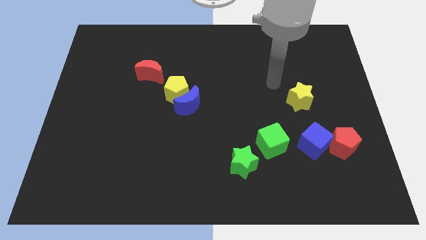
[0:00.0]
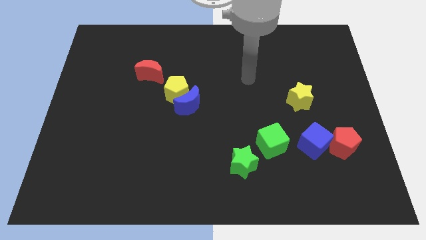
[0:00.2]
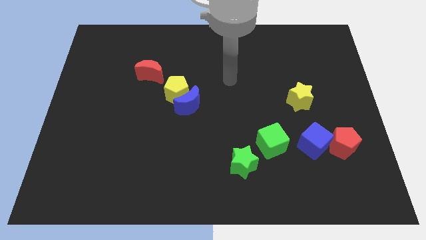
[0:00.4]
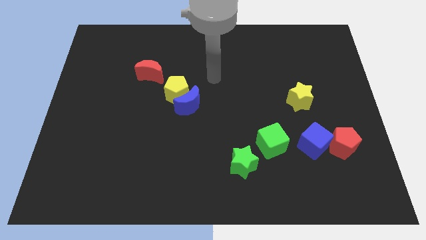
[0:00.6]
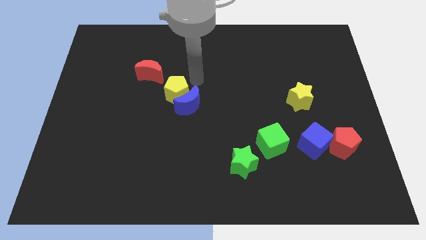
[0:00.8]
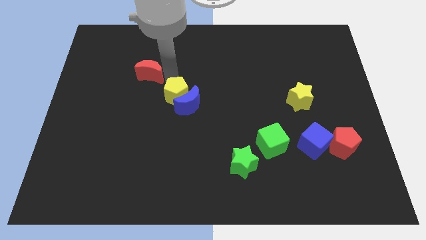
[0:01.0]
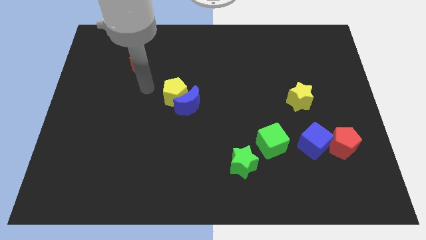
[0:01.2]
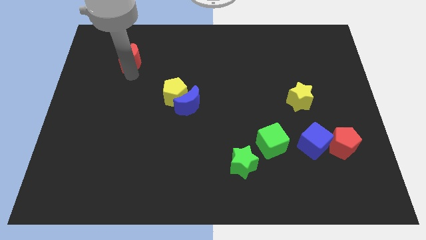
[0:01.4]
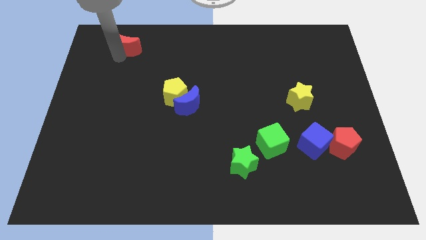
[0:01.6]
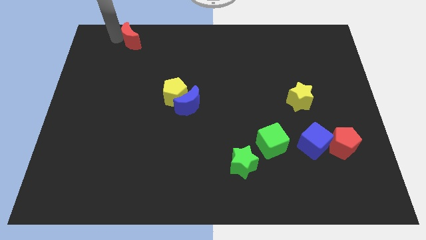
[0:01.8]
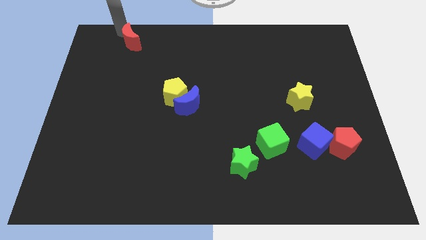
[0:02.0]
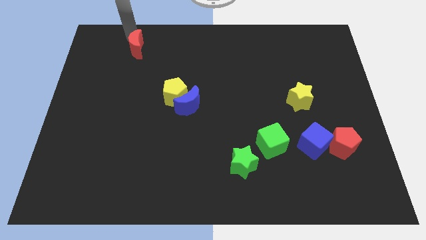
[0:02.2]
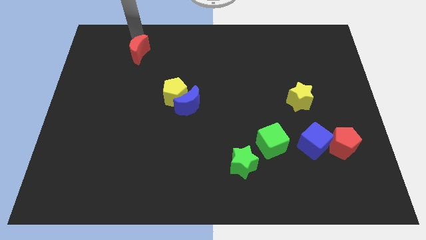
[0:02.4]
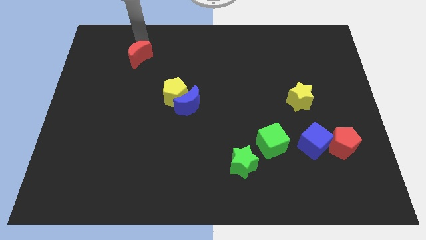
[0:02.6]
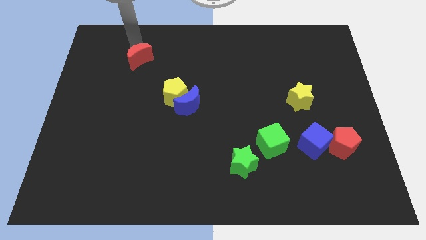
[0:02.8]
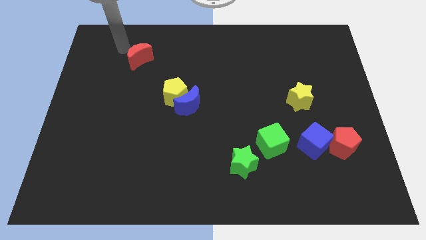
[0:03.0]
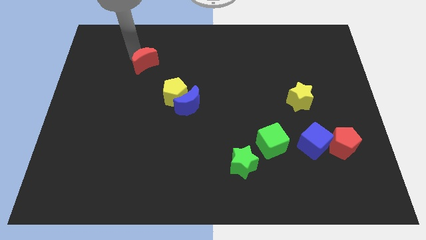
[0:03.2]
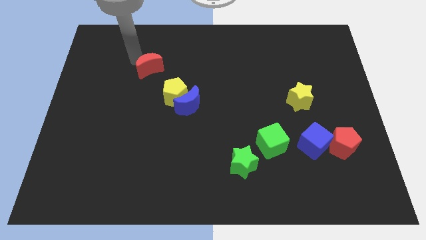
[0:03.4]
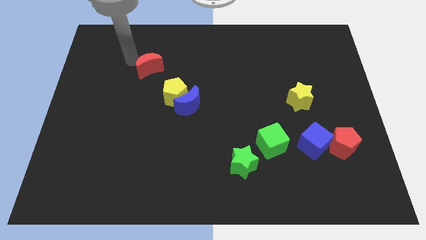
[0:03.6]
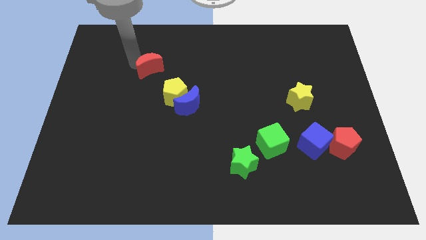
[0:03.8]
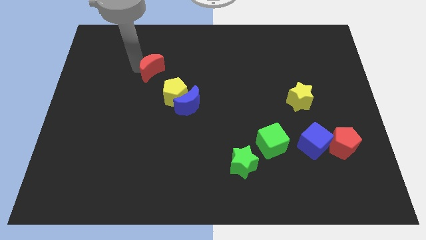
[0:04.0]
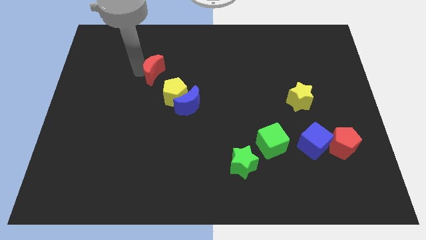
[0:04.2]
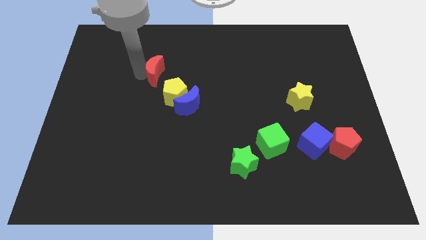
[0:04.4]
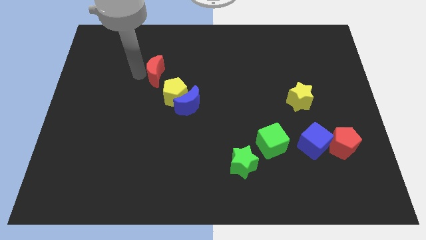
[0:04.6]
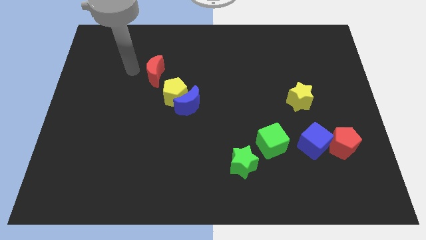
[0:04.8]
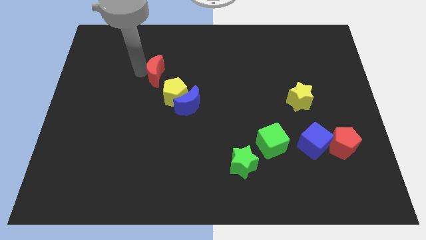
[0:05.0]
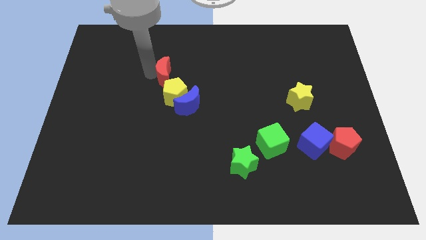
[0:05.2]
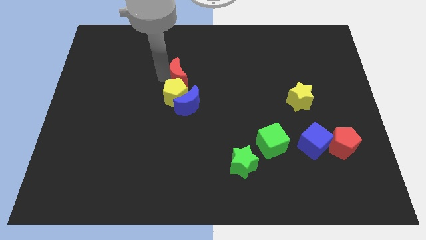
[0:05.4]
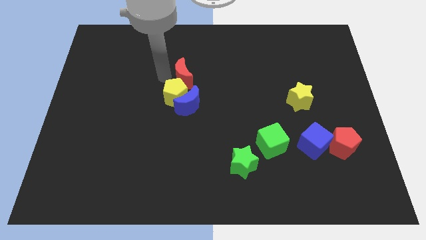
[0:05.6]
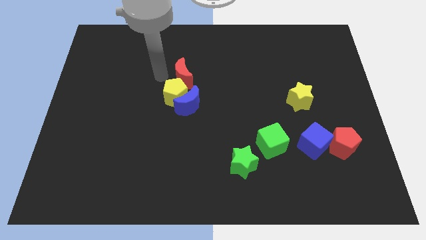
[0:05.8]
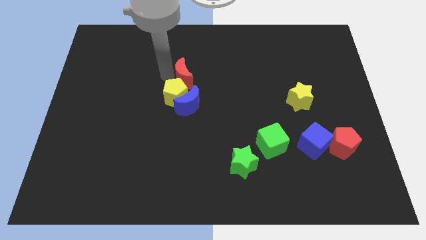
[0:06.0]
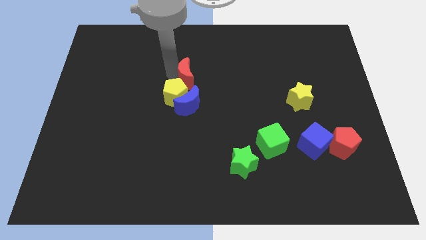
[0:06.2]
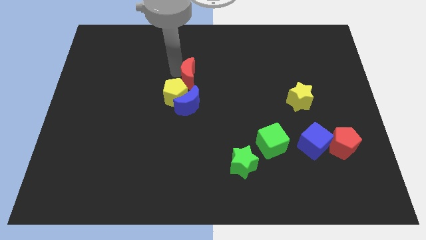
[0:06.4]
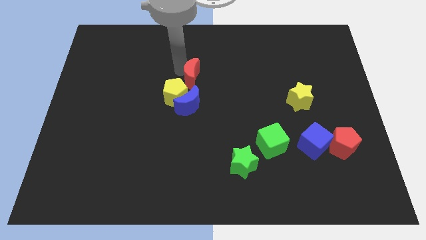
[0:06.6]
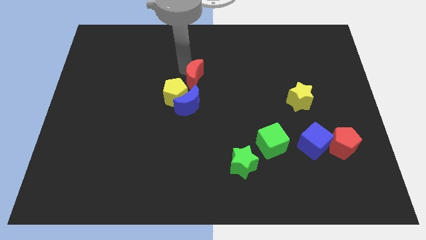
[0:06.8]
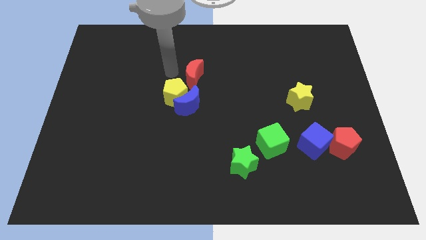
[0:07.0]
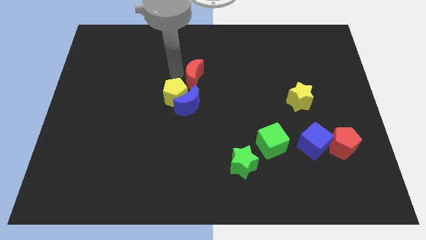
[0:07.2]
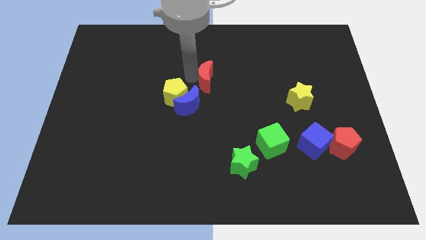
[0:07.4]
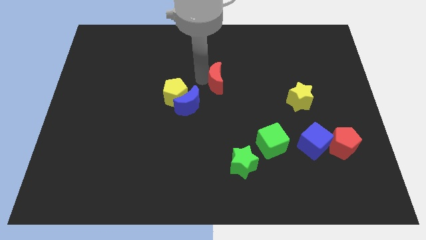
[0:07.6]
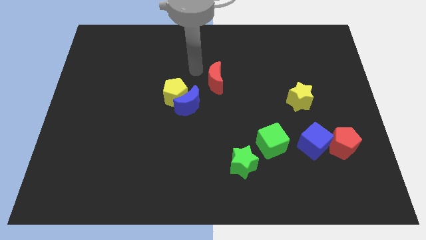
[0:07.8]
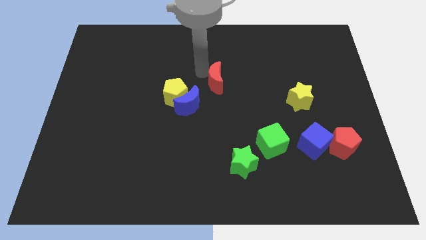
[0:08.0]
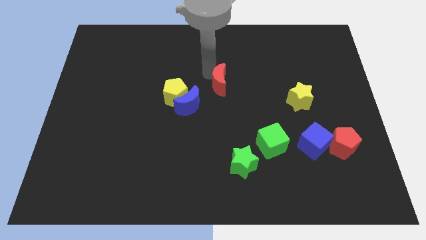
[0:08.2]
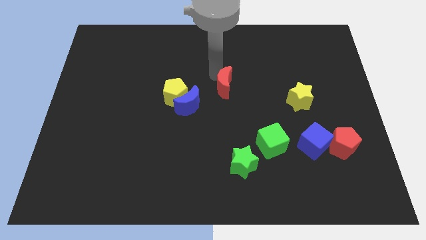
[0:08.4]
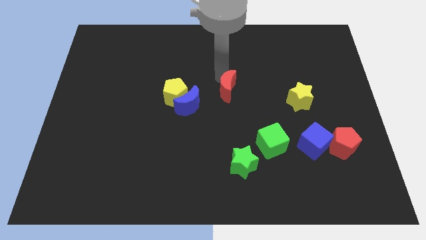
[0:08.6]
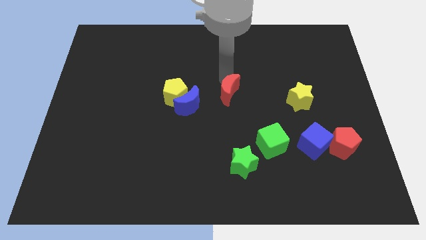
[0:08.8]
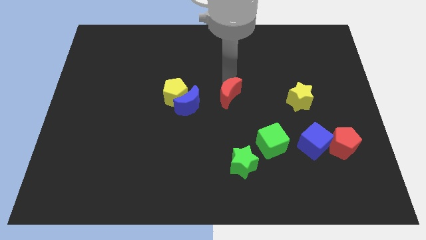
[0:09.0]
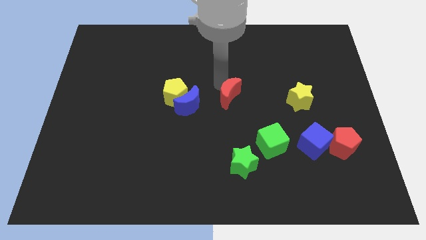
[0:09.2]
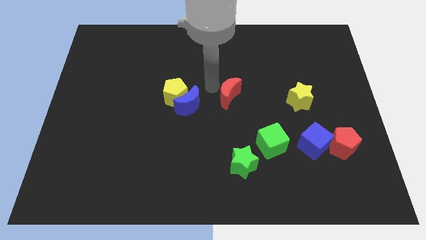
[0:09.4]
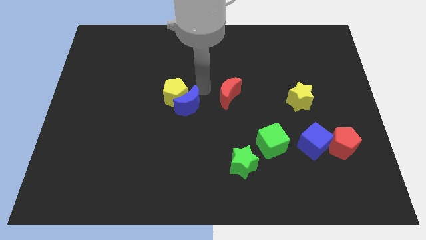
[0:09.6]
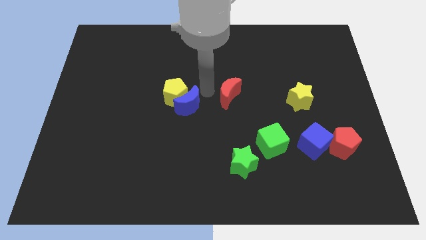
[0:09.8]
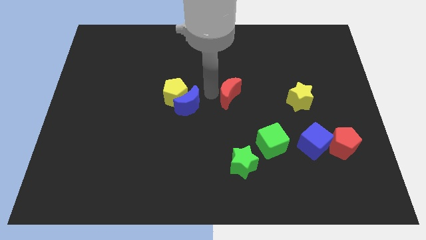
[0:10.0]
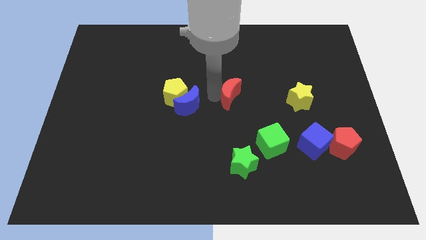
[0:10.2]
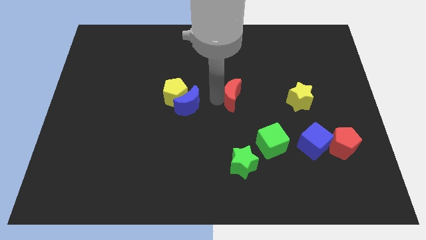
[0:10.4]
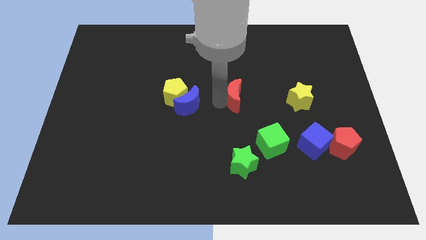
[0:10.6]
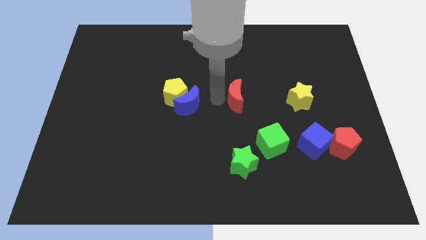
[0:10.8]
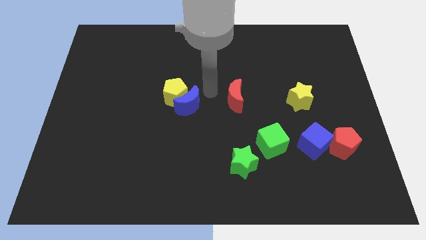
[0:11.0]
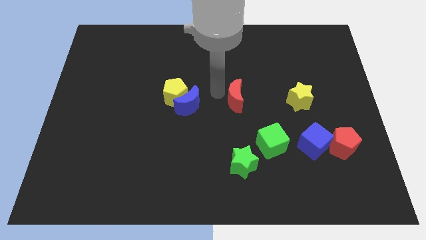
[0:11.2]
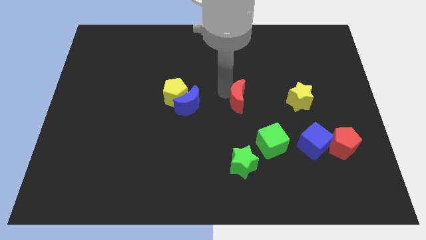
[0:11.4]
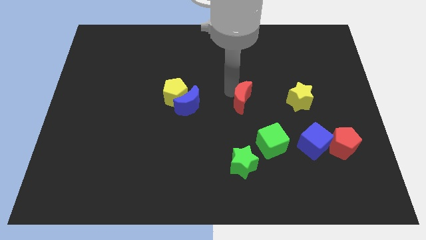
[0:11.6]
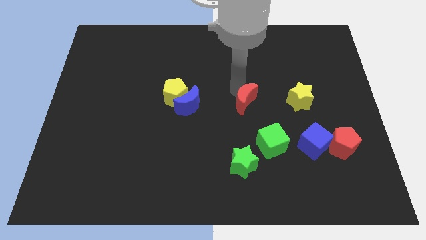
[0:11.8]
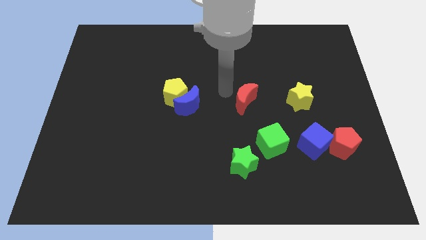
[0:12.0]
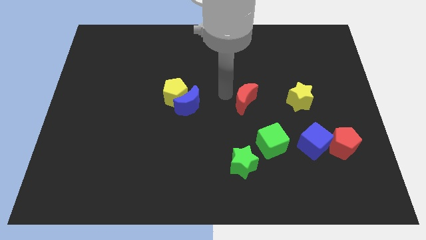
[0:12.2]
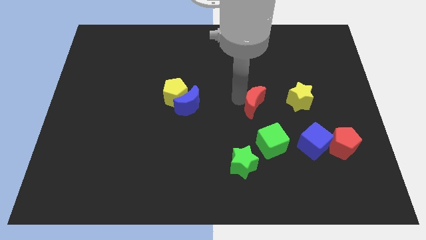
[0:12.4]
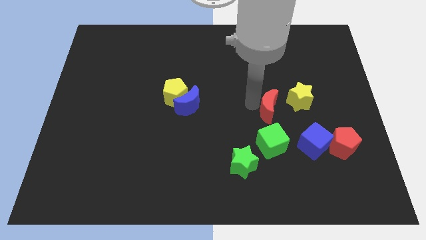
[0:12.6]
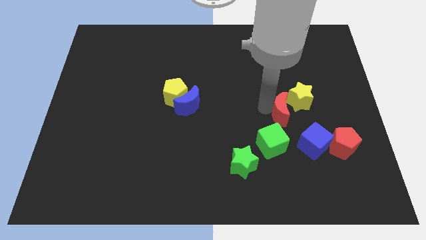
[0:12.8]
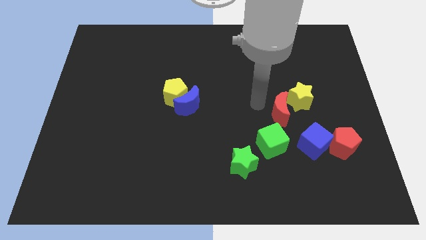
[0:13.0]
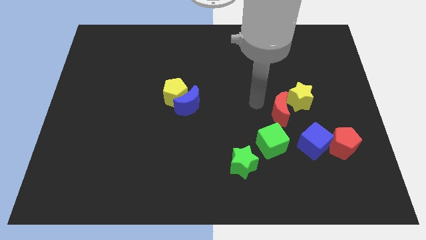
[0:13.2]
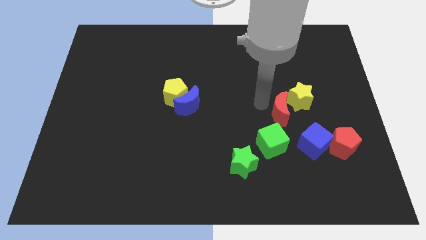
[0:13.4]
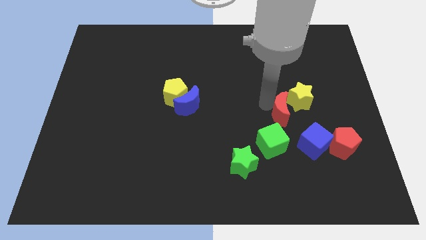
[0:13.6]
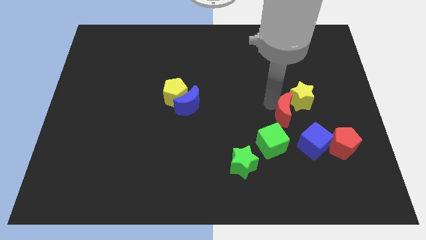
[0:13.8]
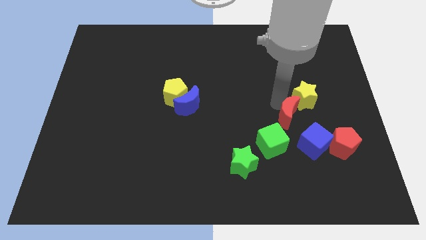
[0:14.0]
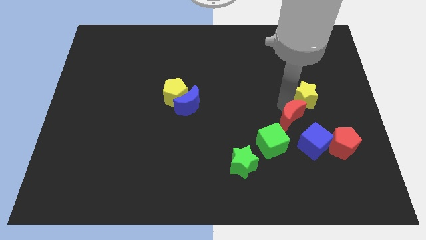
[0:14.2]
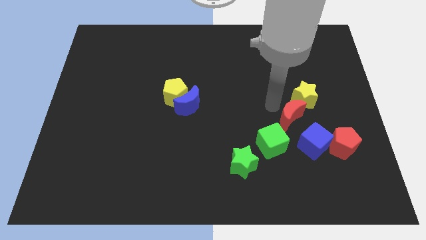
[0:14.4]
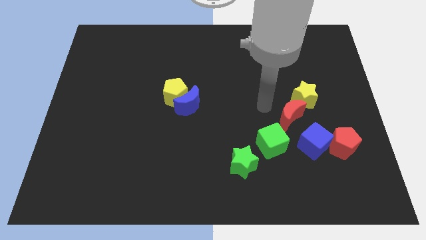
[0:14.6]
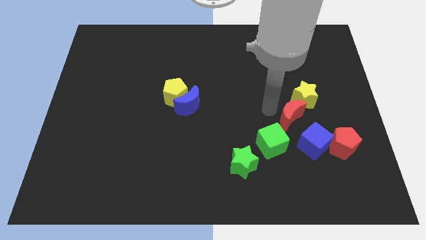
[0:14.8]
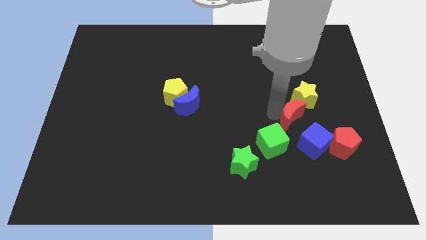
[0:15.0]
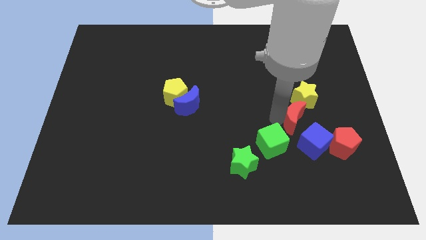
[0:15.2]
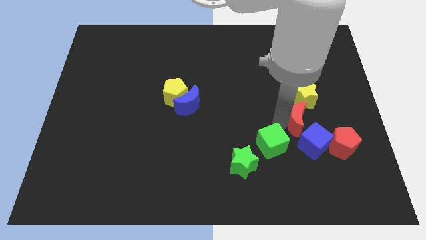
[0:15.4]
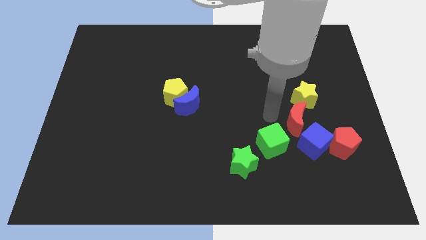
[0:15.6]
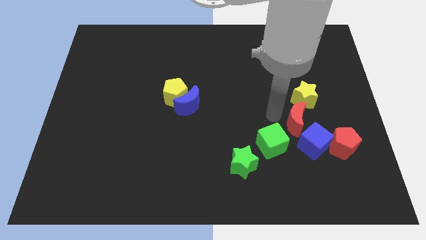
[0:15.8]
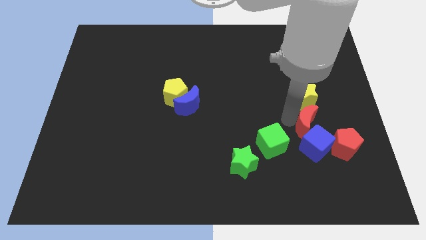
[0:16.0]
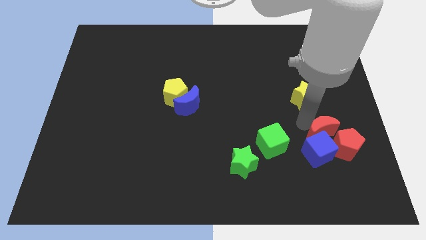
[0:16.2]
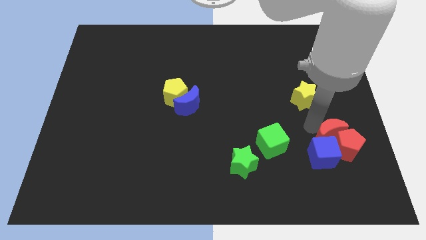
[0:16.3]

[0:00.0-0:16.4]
put the red moon close to the red pentagon
